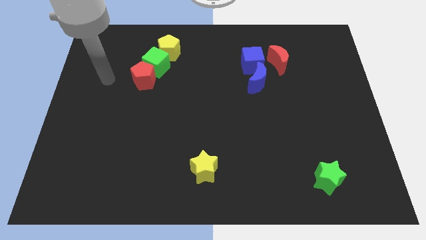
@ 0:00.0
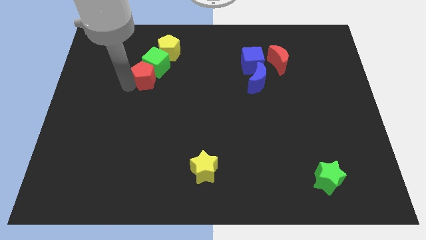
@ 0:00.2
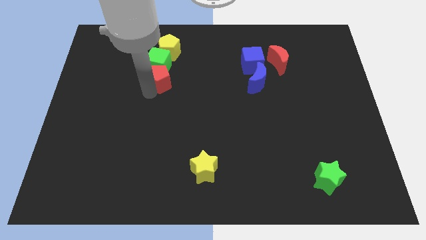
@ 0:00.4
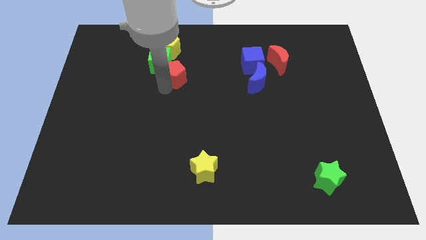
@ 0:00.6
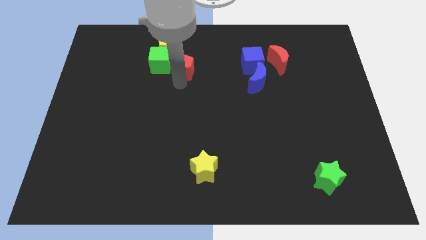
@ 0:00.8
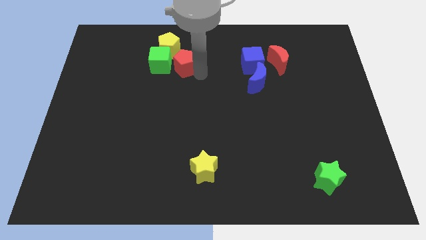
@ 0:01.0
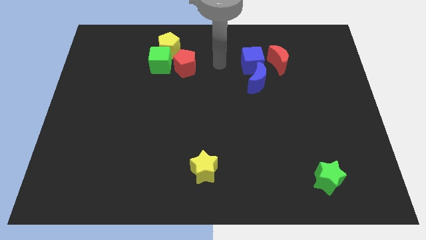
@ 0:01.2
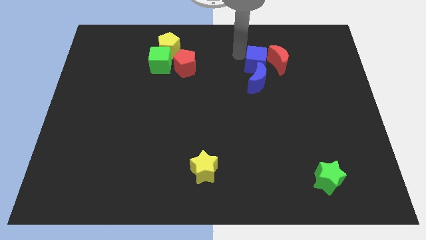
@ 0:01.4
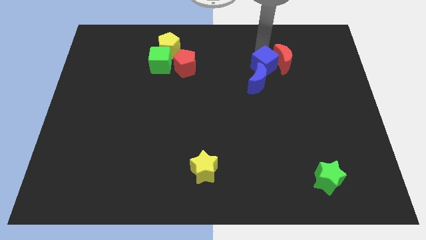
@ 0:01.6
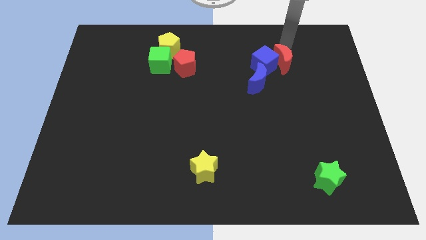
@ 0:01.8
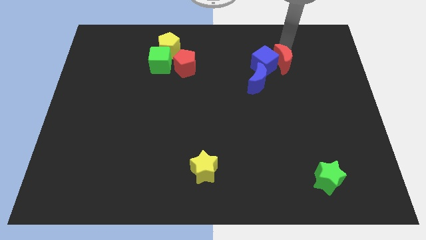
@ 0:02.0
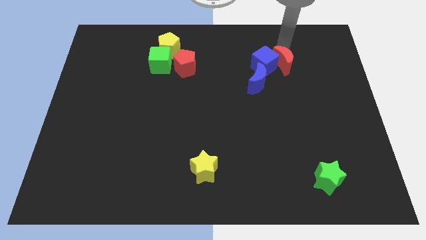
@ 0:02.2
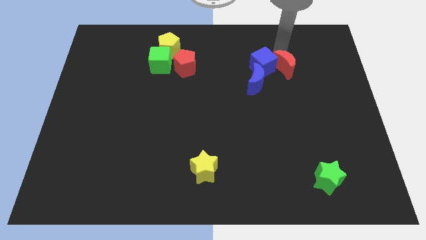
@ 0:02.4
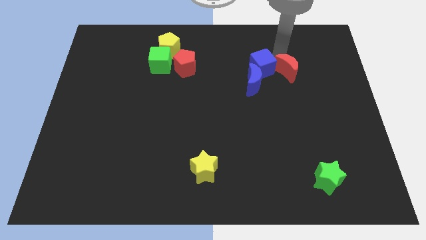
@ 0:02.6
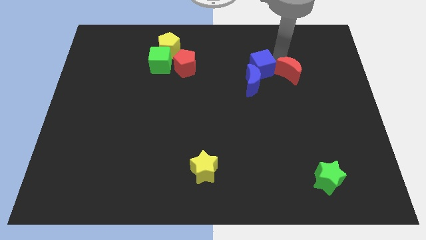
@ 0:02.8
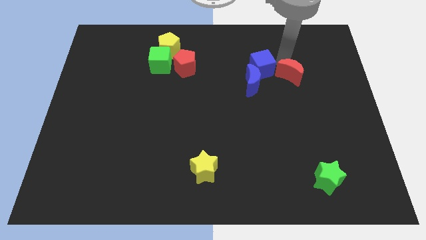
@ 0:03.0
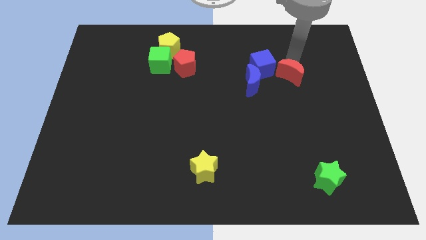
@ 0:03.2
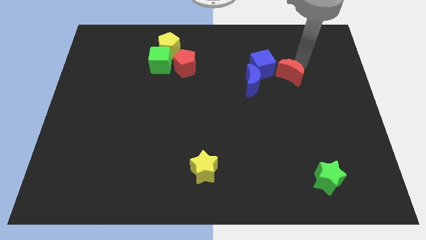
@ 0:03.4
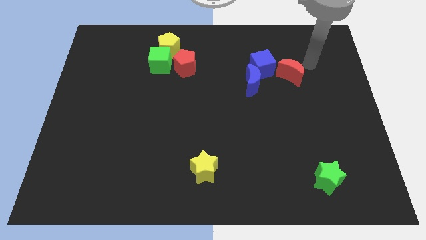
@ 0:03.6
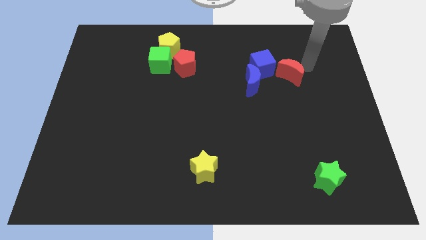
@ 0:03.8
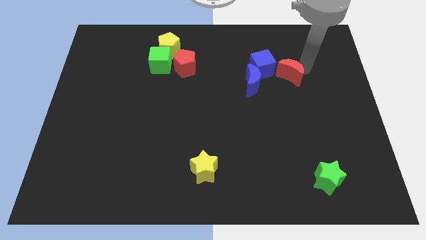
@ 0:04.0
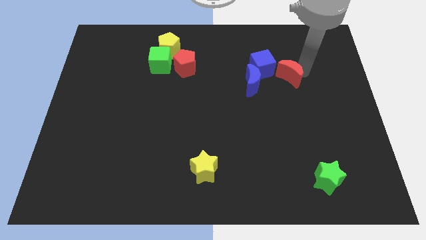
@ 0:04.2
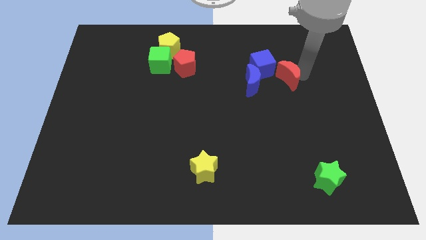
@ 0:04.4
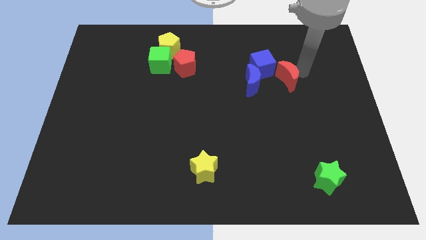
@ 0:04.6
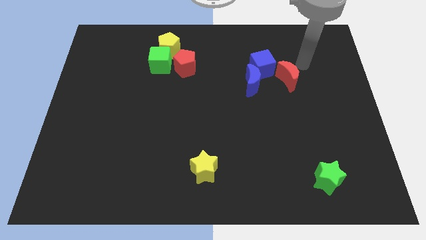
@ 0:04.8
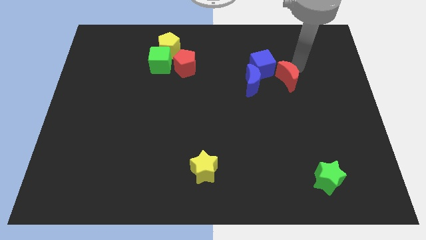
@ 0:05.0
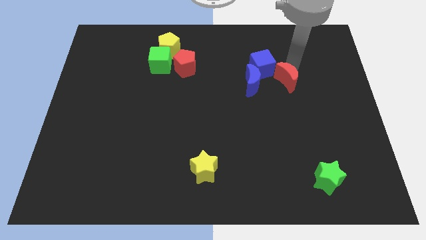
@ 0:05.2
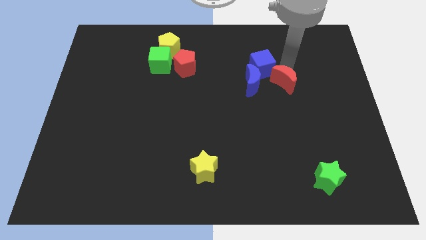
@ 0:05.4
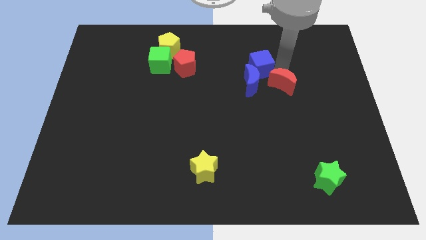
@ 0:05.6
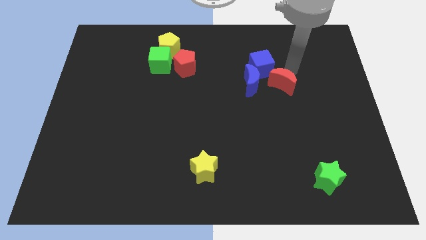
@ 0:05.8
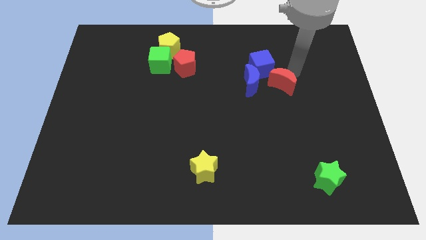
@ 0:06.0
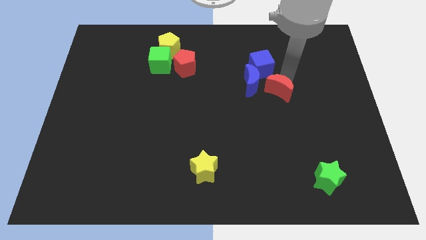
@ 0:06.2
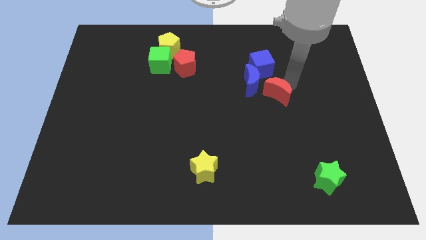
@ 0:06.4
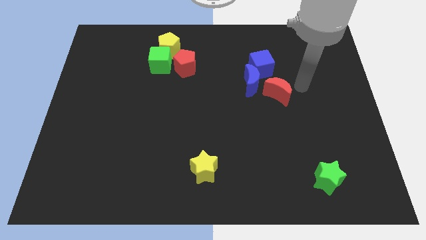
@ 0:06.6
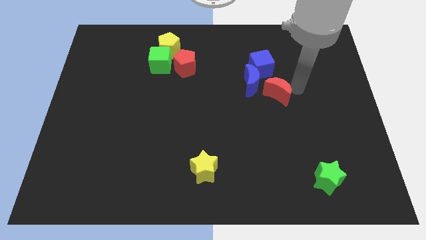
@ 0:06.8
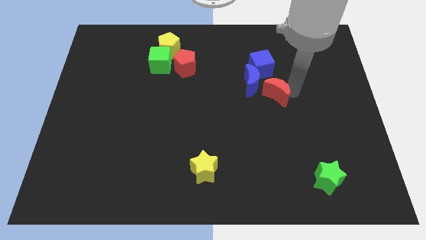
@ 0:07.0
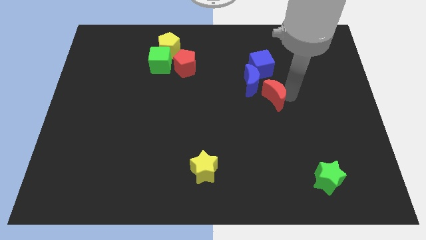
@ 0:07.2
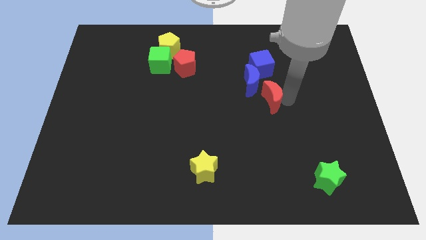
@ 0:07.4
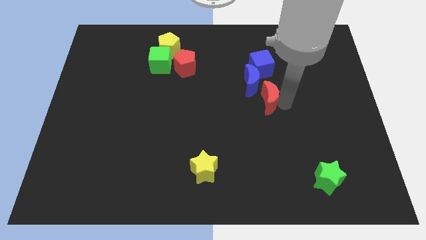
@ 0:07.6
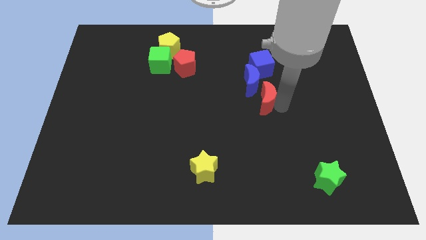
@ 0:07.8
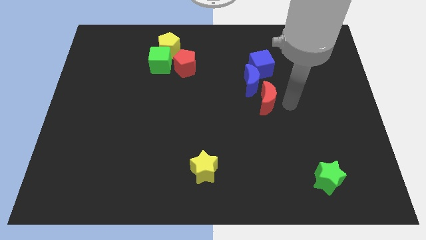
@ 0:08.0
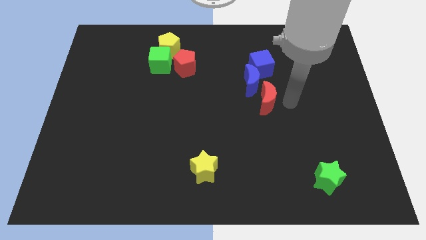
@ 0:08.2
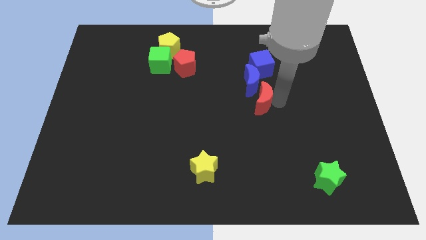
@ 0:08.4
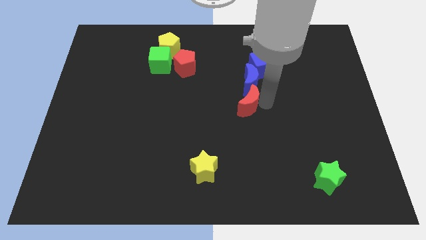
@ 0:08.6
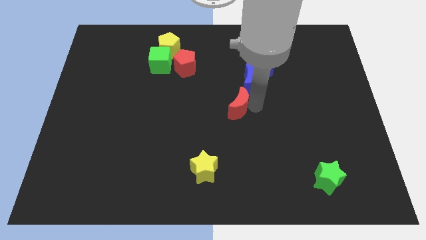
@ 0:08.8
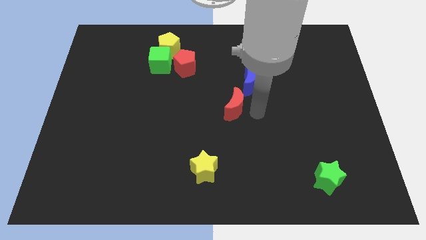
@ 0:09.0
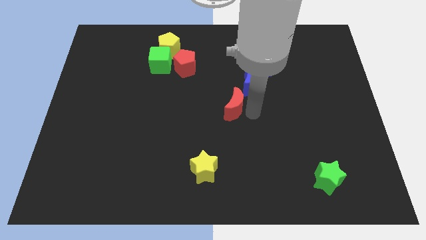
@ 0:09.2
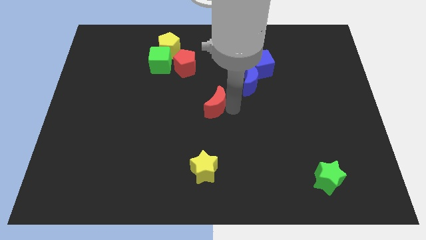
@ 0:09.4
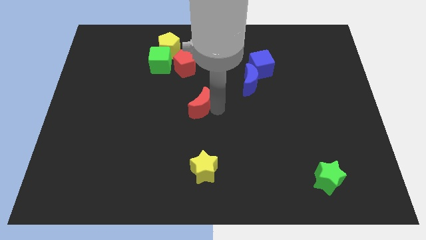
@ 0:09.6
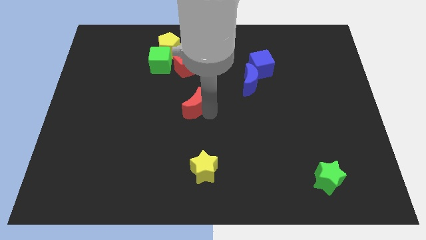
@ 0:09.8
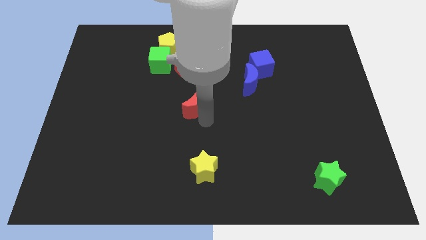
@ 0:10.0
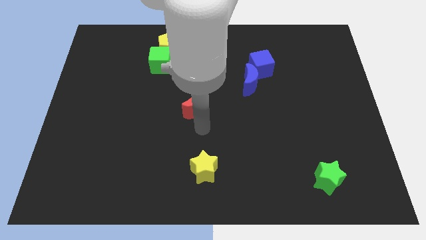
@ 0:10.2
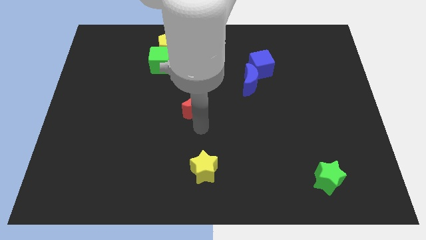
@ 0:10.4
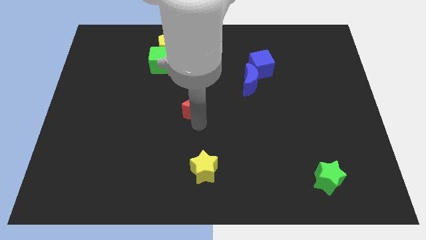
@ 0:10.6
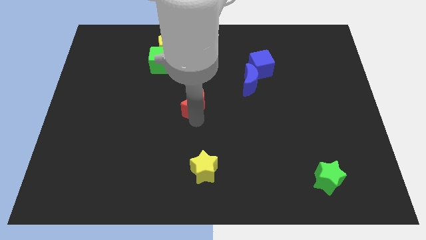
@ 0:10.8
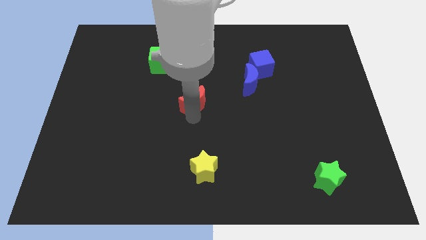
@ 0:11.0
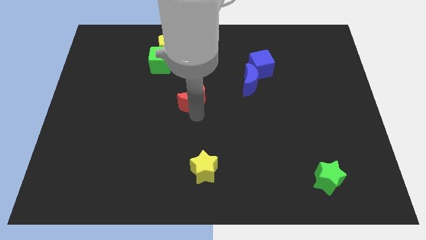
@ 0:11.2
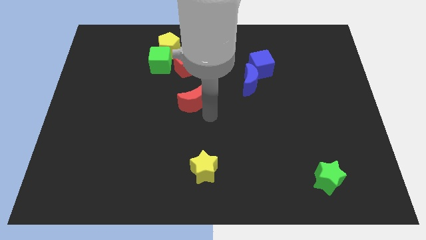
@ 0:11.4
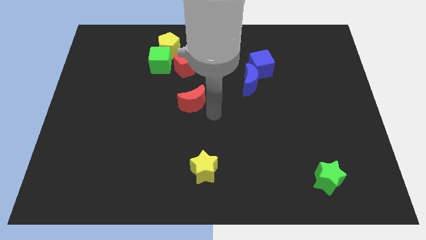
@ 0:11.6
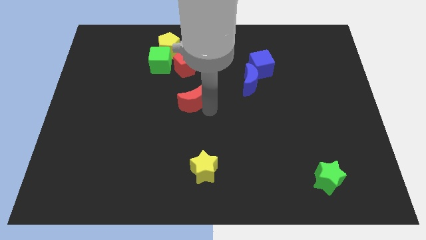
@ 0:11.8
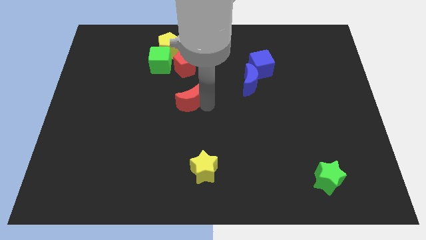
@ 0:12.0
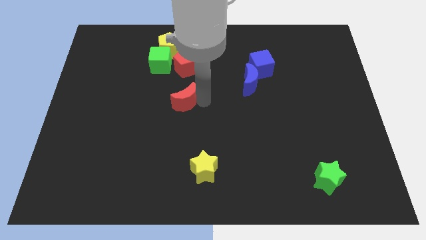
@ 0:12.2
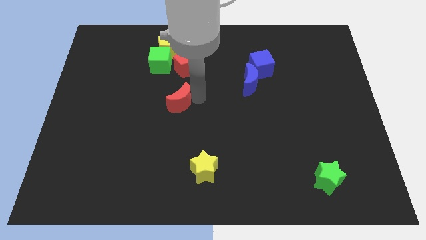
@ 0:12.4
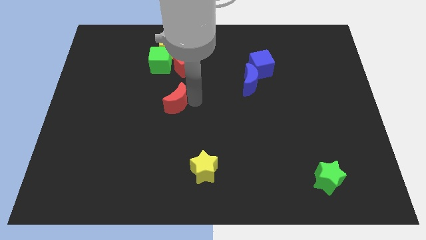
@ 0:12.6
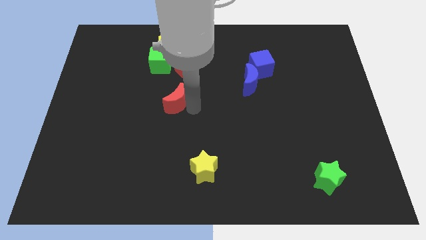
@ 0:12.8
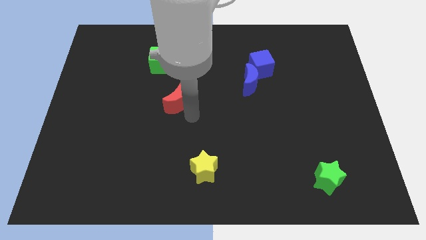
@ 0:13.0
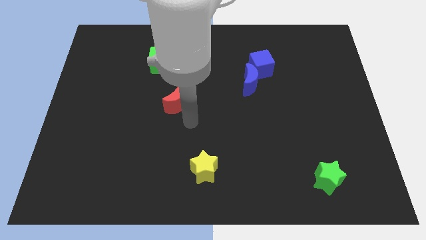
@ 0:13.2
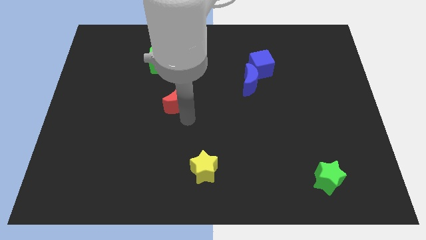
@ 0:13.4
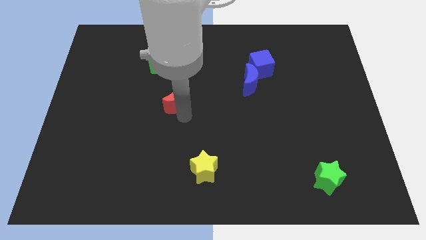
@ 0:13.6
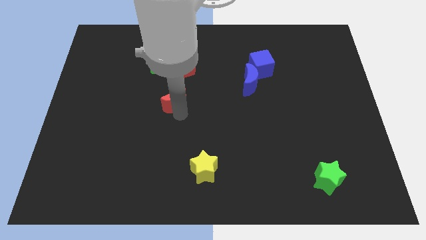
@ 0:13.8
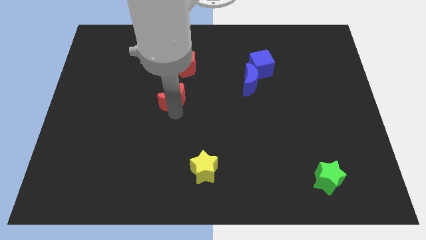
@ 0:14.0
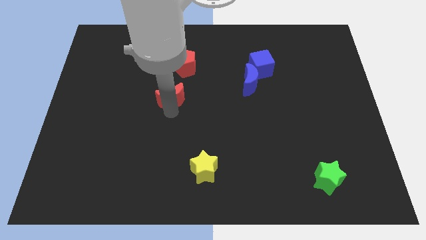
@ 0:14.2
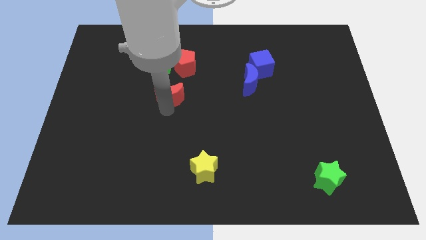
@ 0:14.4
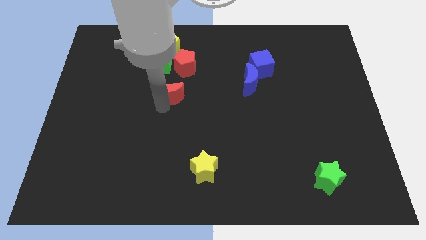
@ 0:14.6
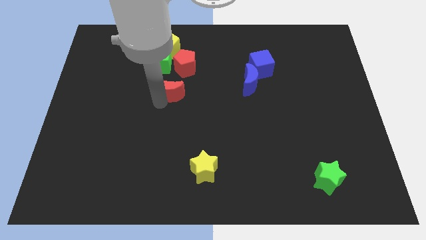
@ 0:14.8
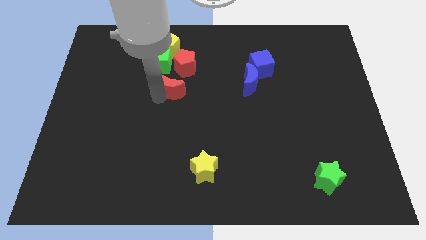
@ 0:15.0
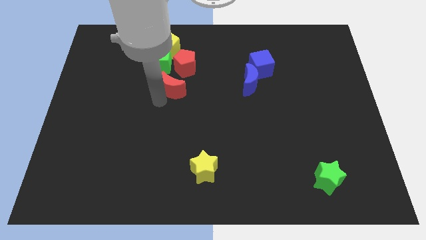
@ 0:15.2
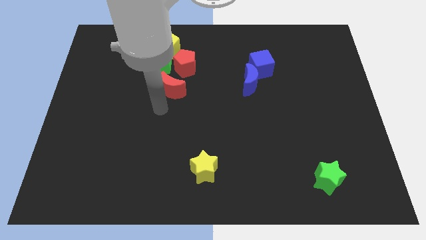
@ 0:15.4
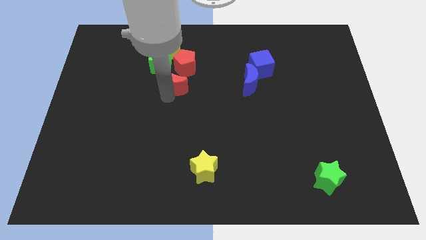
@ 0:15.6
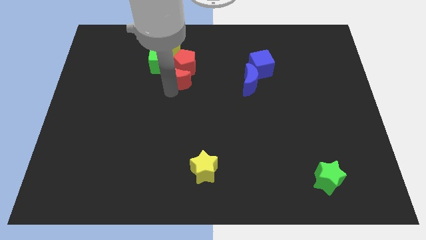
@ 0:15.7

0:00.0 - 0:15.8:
push the red moon next to the red pentagon
